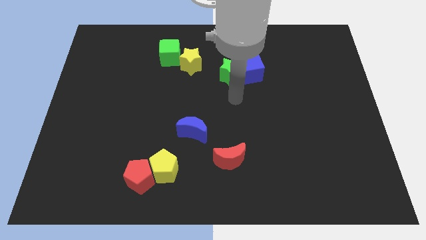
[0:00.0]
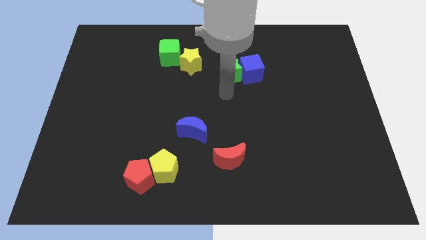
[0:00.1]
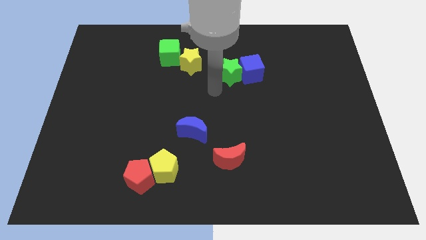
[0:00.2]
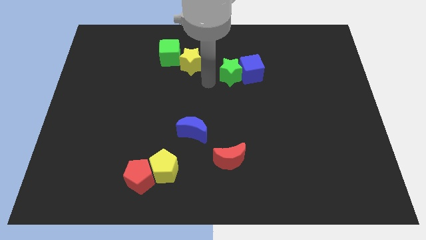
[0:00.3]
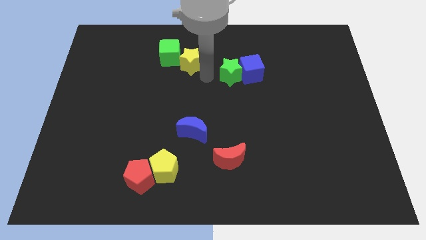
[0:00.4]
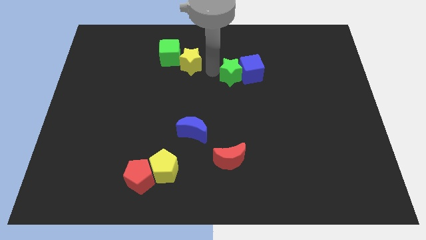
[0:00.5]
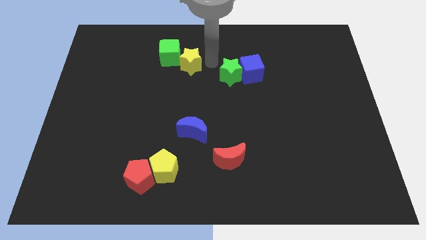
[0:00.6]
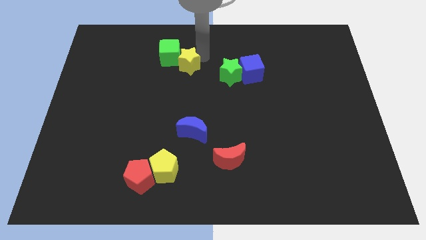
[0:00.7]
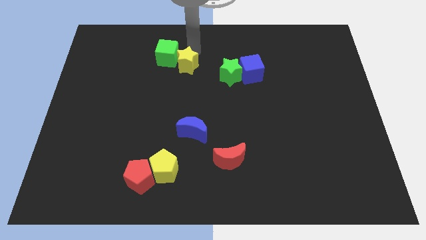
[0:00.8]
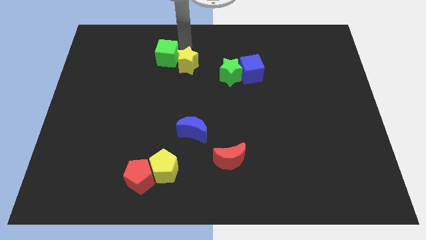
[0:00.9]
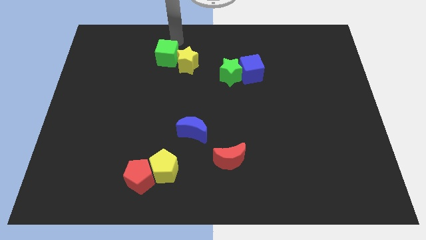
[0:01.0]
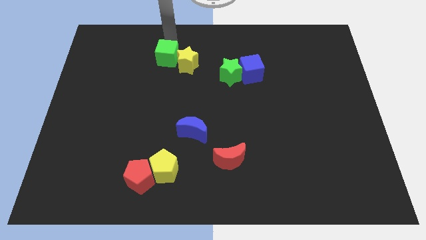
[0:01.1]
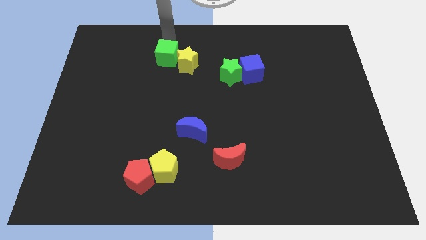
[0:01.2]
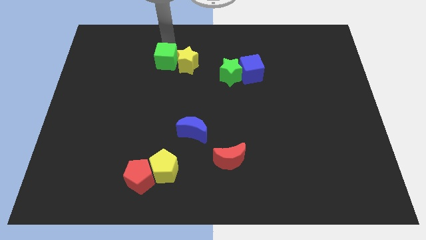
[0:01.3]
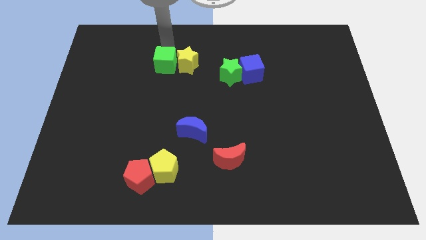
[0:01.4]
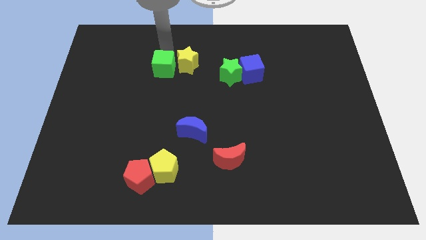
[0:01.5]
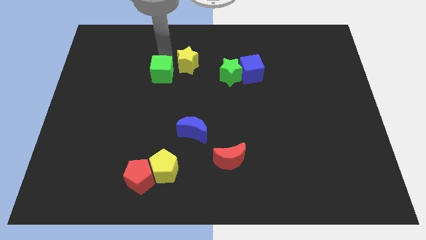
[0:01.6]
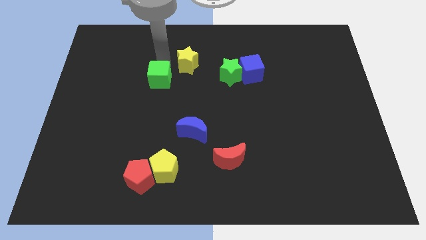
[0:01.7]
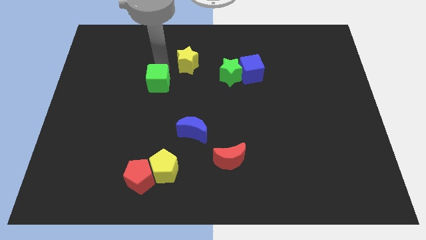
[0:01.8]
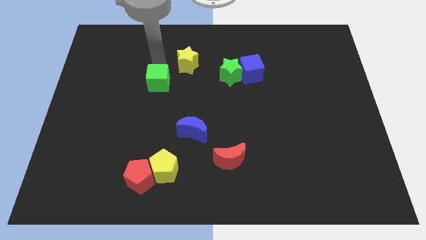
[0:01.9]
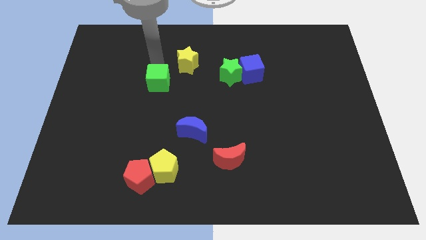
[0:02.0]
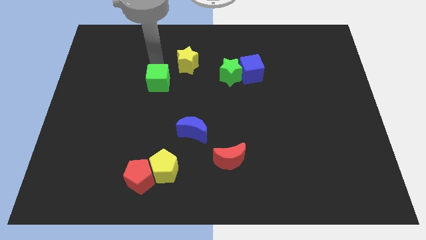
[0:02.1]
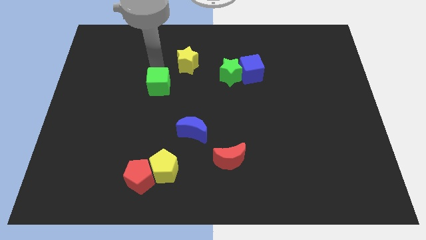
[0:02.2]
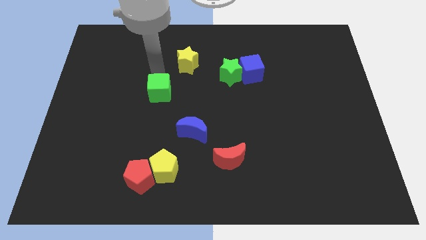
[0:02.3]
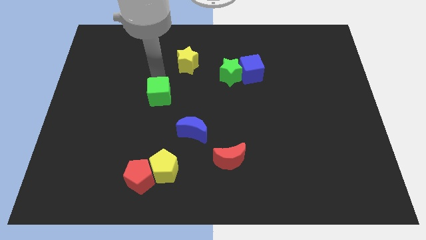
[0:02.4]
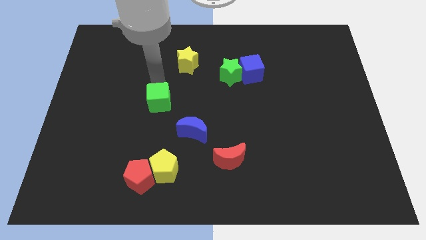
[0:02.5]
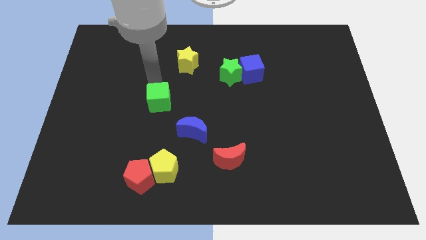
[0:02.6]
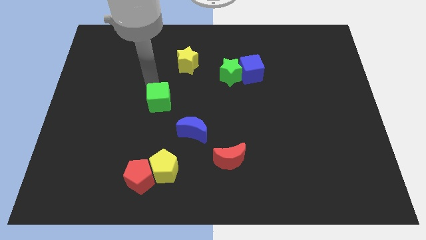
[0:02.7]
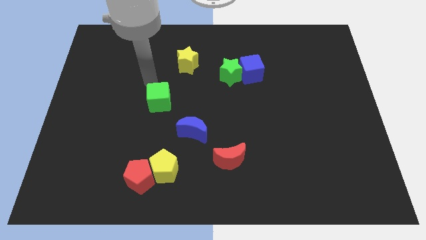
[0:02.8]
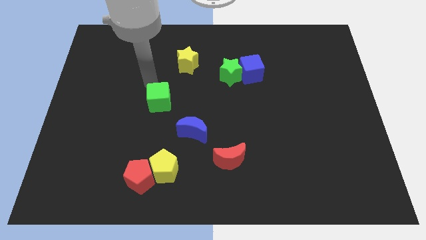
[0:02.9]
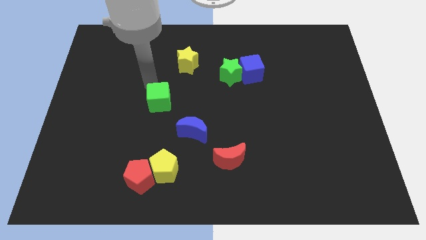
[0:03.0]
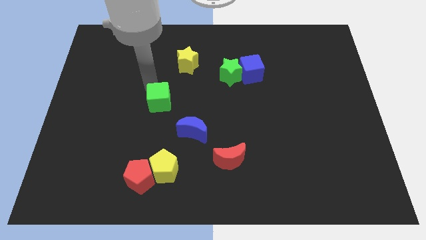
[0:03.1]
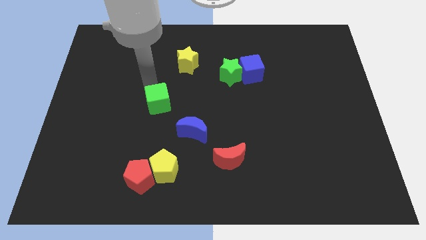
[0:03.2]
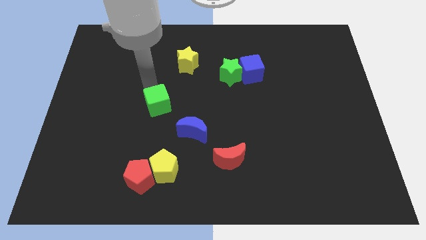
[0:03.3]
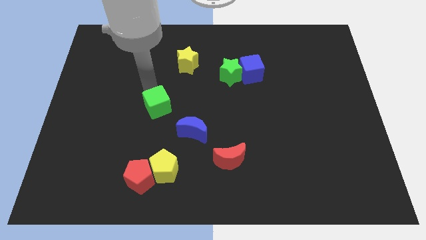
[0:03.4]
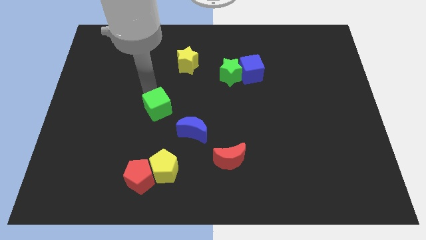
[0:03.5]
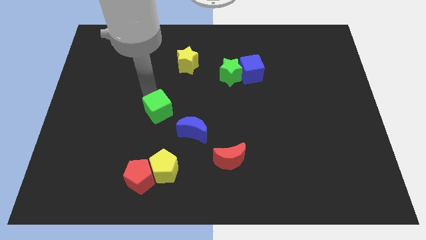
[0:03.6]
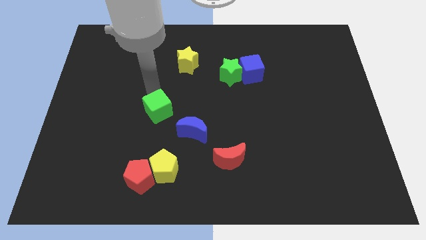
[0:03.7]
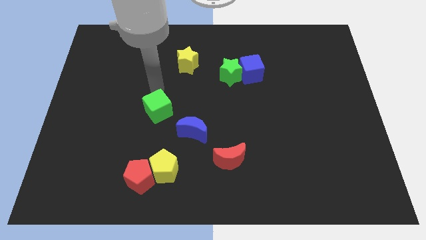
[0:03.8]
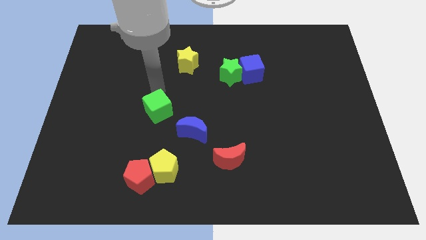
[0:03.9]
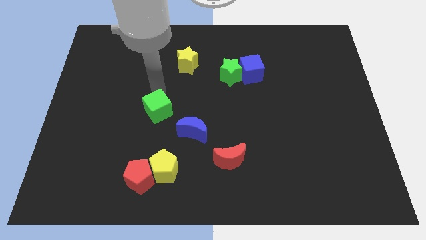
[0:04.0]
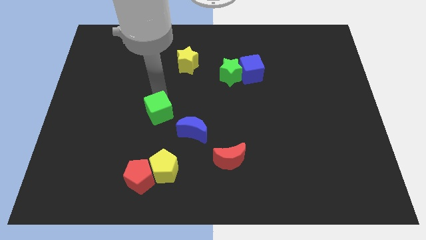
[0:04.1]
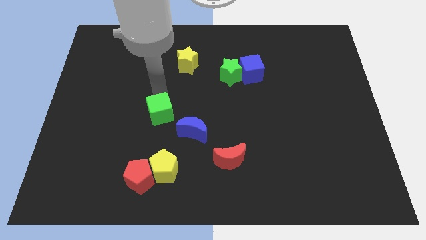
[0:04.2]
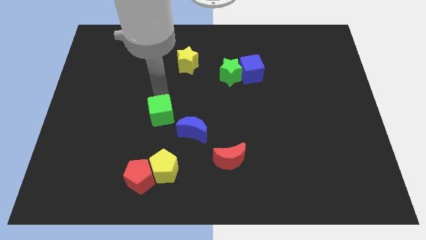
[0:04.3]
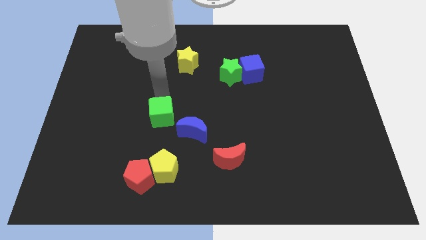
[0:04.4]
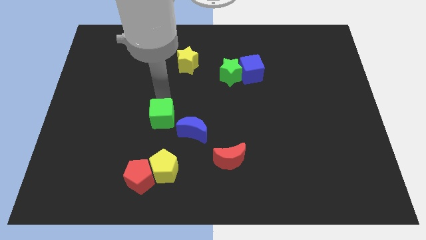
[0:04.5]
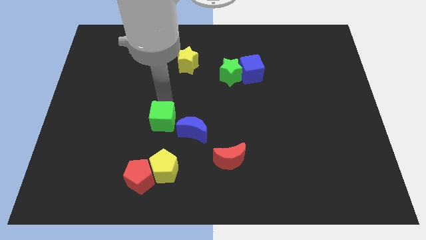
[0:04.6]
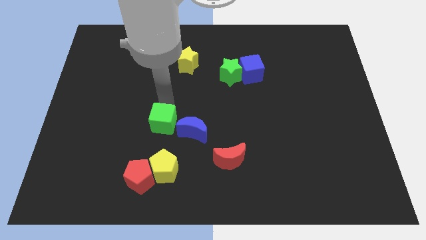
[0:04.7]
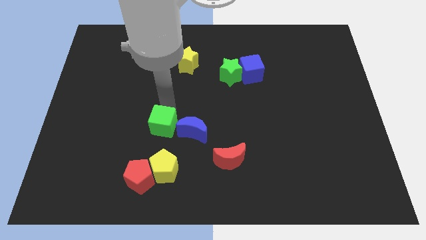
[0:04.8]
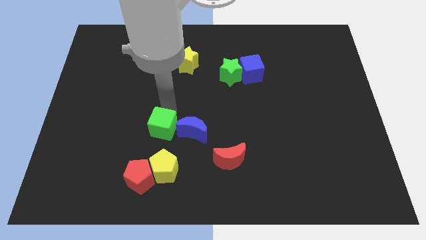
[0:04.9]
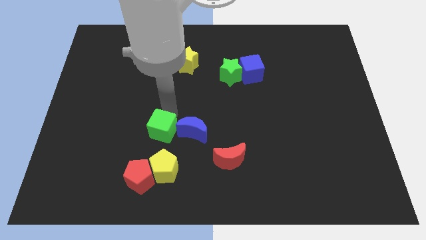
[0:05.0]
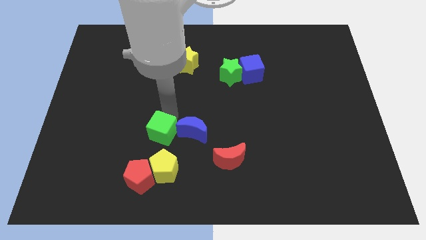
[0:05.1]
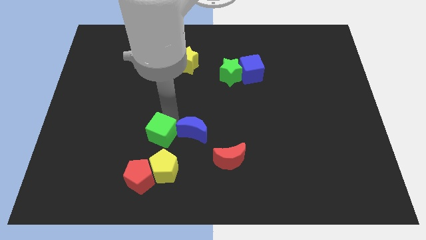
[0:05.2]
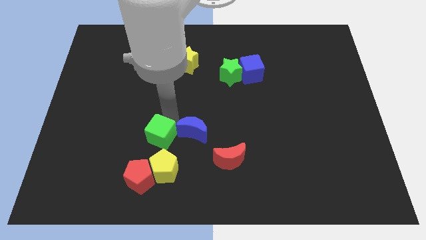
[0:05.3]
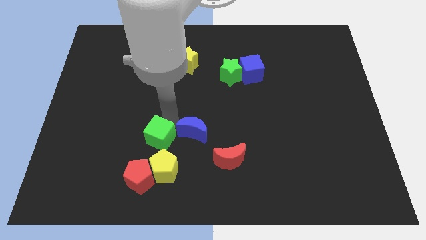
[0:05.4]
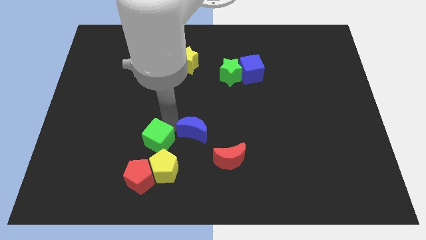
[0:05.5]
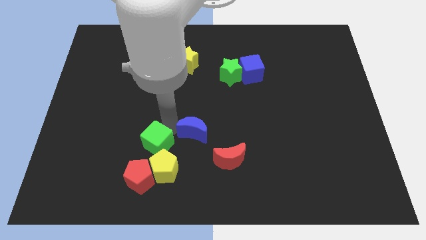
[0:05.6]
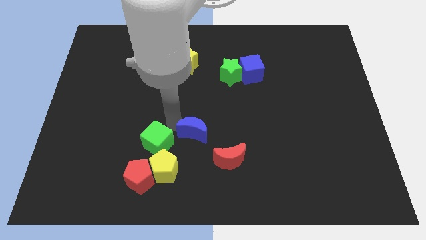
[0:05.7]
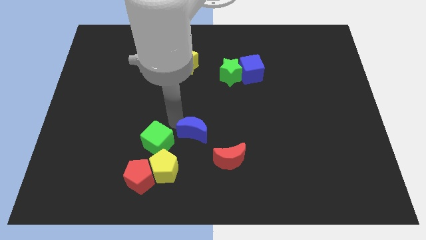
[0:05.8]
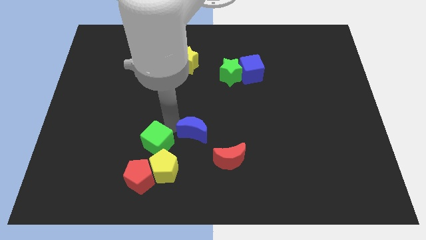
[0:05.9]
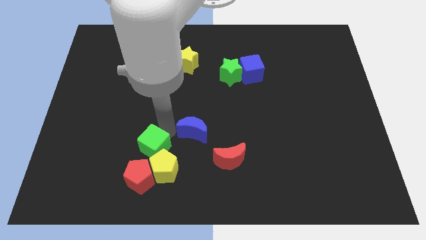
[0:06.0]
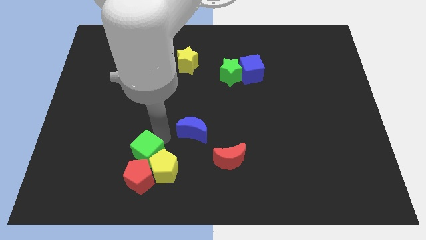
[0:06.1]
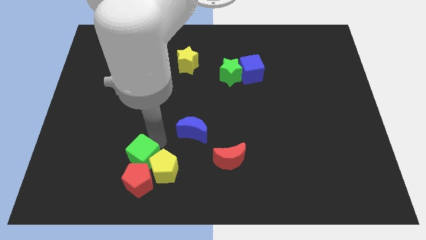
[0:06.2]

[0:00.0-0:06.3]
slide the green cube close to the red pentagon

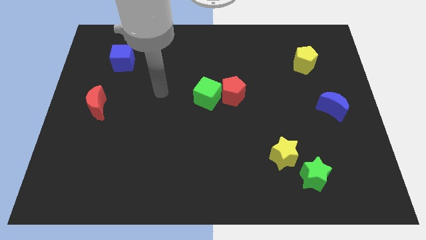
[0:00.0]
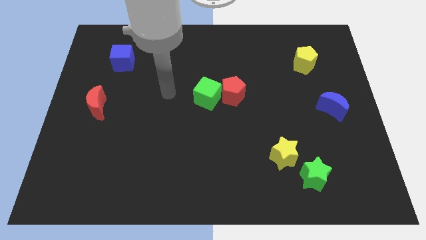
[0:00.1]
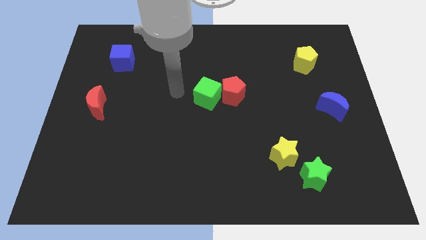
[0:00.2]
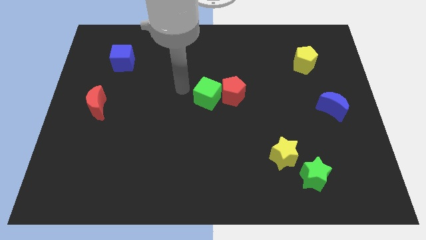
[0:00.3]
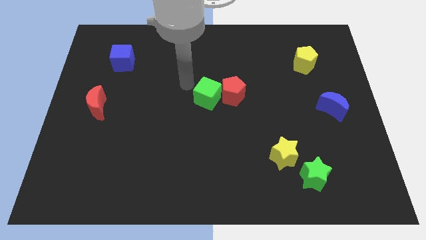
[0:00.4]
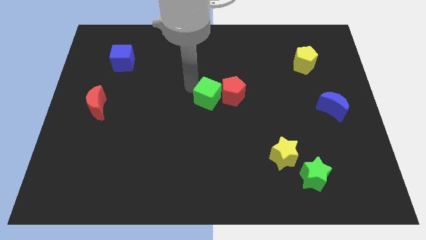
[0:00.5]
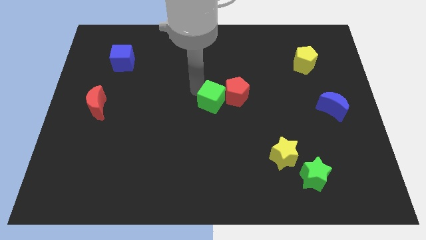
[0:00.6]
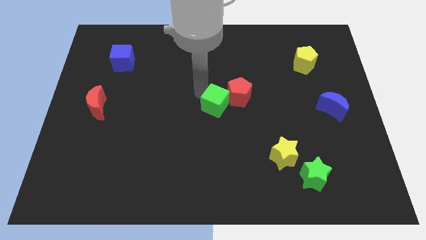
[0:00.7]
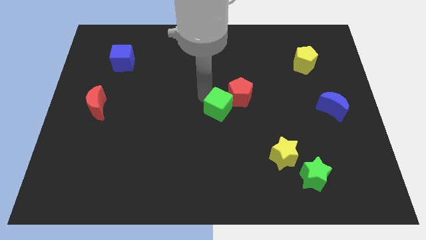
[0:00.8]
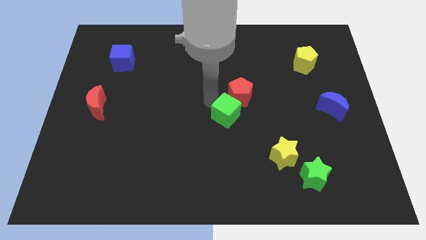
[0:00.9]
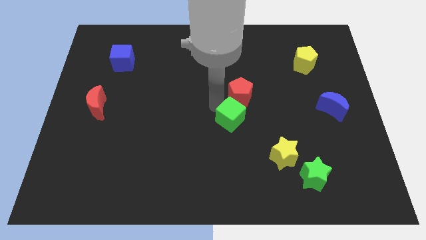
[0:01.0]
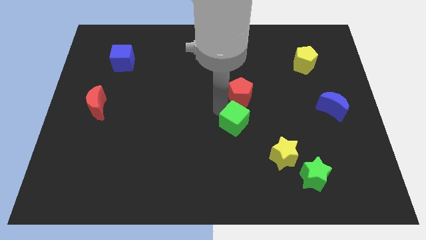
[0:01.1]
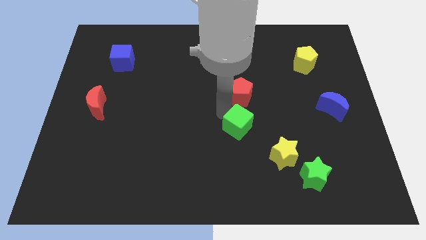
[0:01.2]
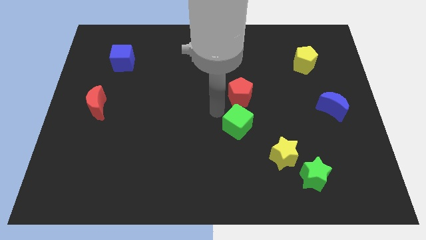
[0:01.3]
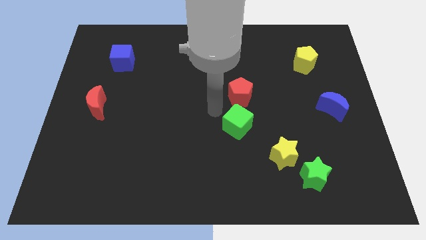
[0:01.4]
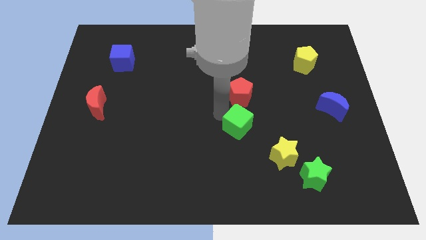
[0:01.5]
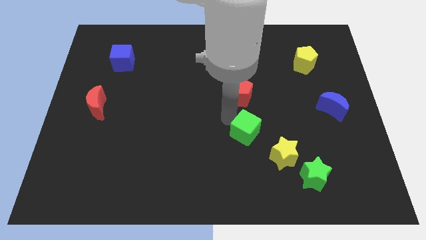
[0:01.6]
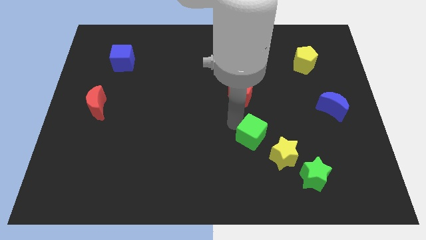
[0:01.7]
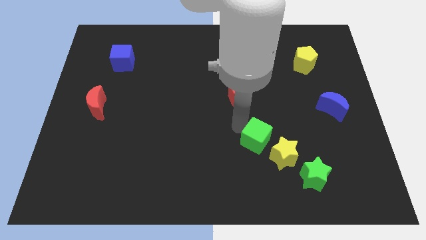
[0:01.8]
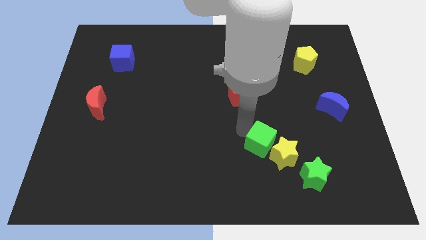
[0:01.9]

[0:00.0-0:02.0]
move the green cube to the yellow star
